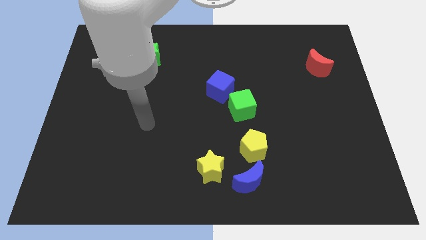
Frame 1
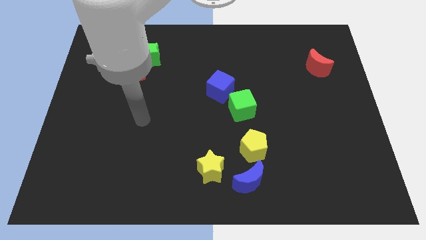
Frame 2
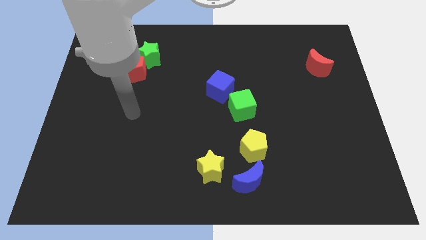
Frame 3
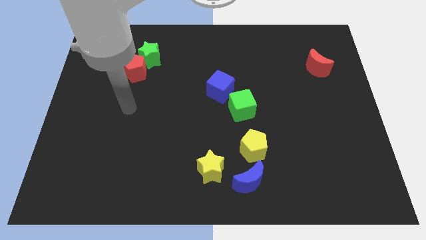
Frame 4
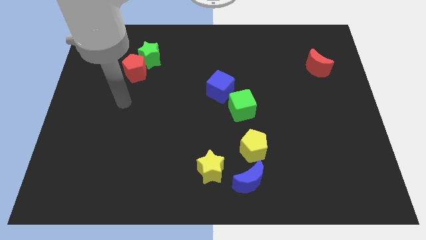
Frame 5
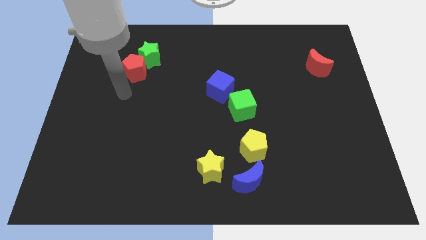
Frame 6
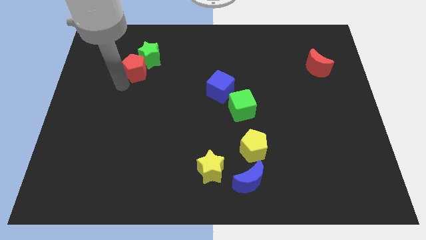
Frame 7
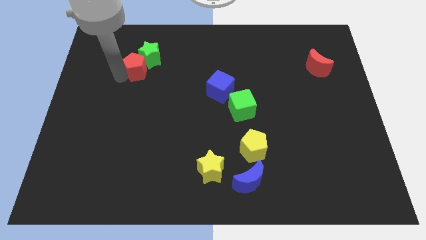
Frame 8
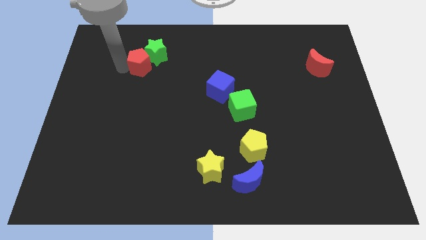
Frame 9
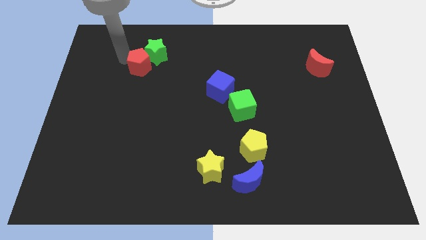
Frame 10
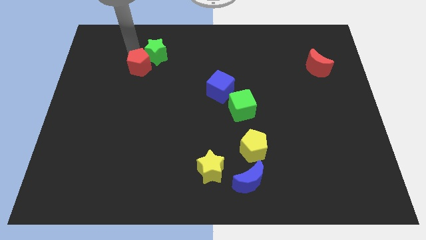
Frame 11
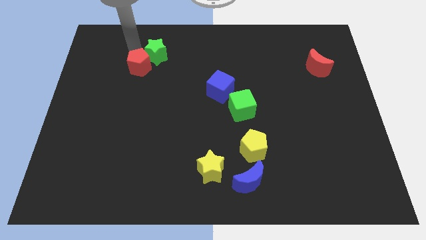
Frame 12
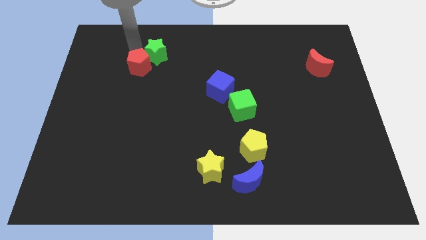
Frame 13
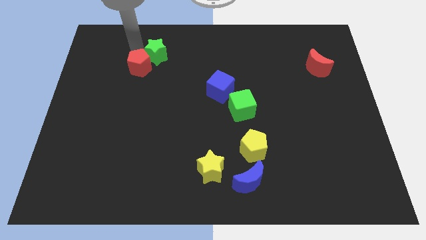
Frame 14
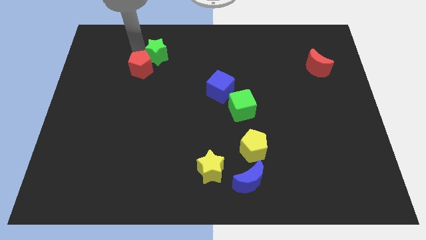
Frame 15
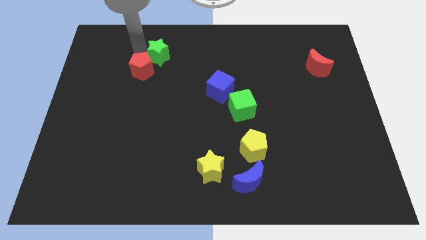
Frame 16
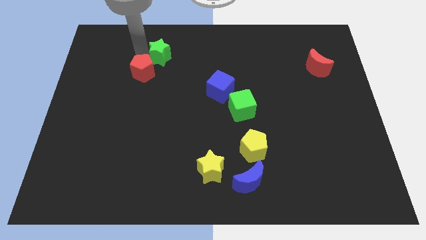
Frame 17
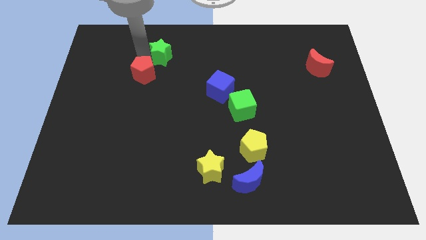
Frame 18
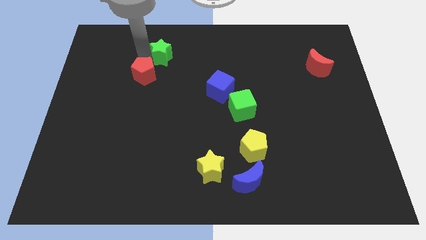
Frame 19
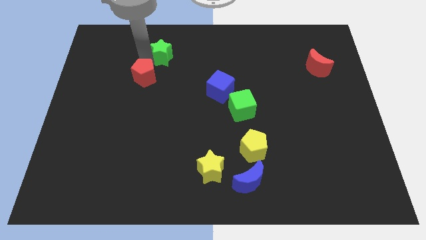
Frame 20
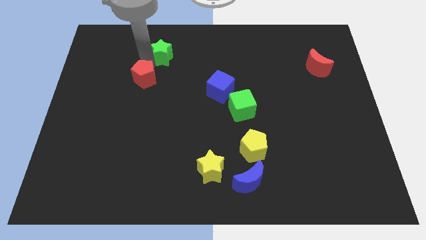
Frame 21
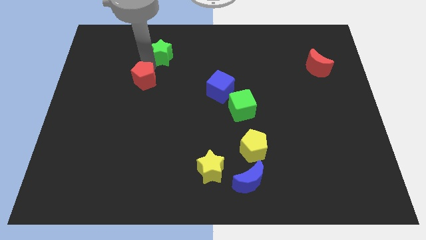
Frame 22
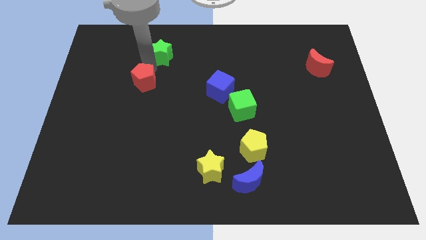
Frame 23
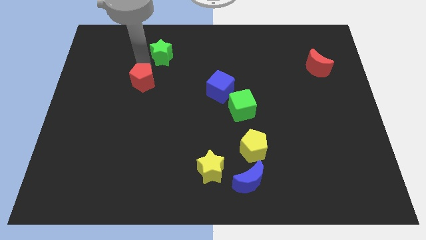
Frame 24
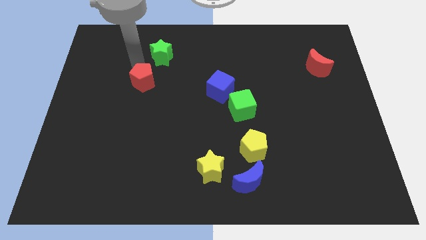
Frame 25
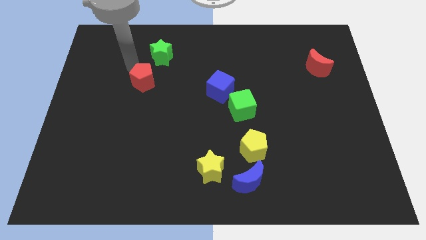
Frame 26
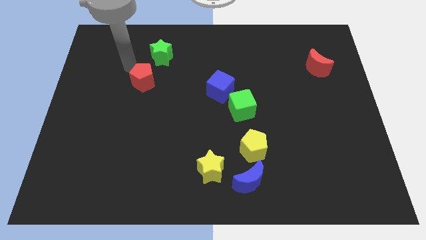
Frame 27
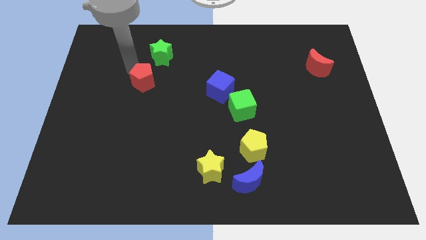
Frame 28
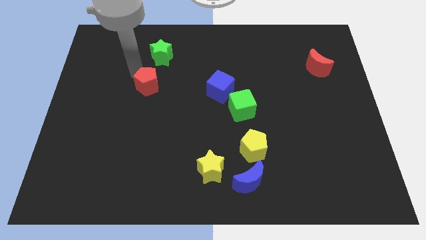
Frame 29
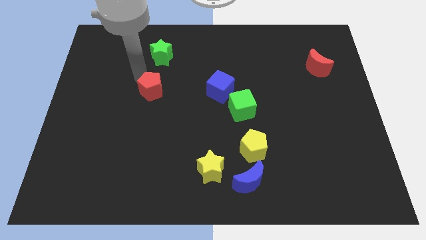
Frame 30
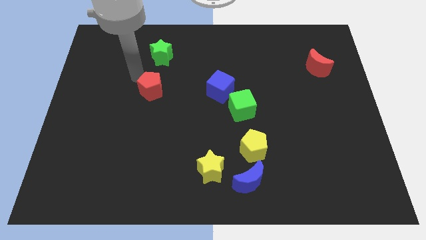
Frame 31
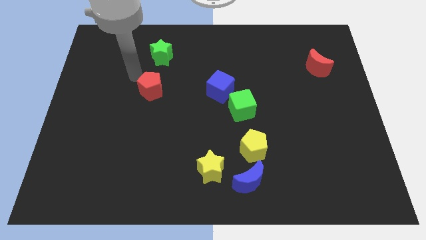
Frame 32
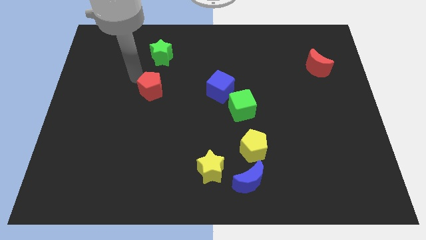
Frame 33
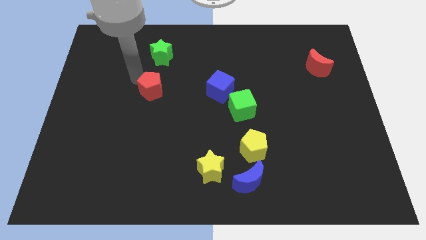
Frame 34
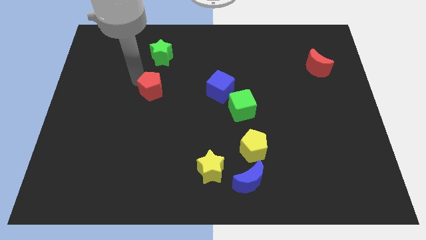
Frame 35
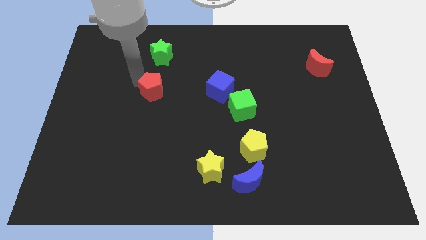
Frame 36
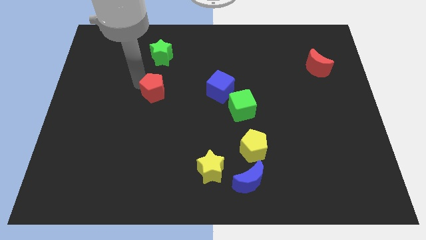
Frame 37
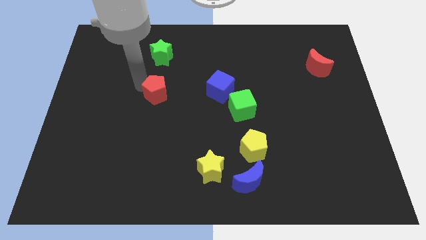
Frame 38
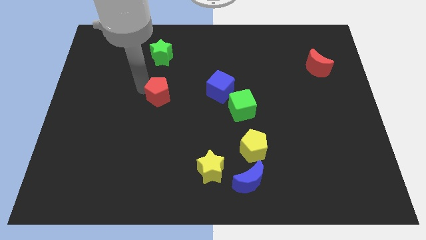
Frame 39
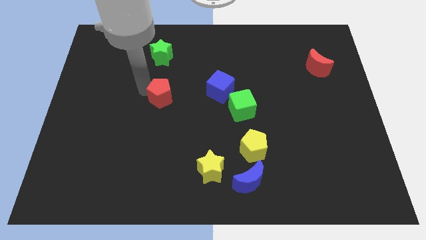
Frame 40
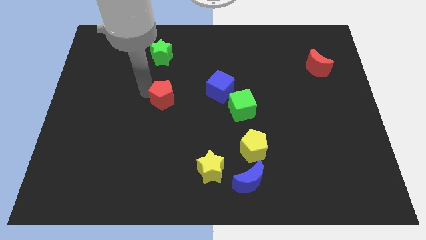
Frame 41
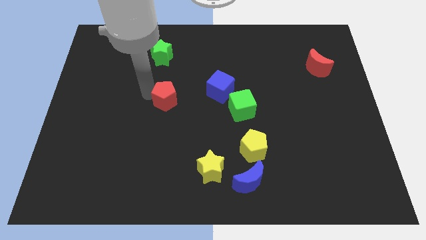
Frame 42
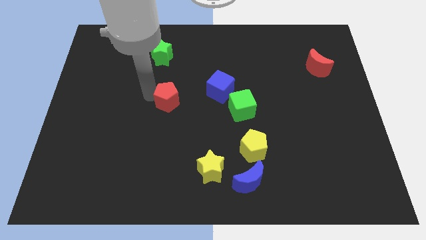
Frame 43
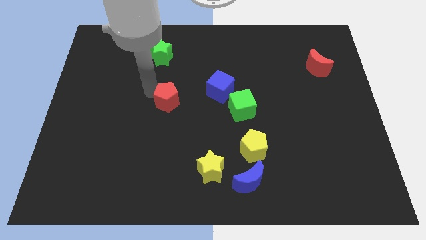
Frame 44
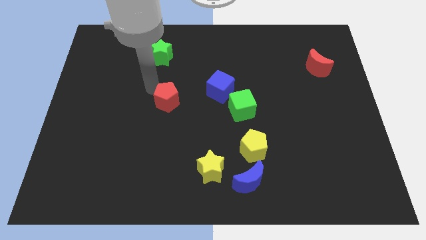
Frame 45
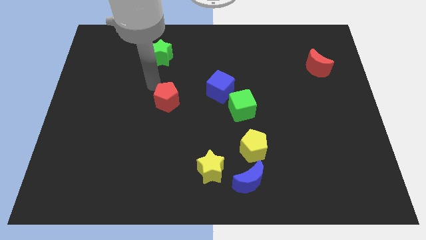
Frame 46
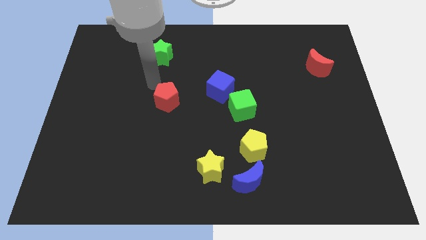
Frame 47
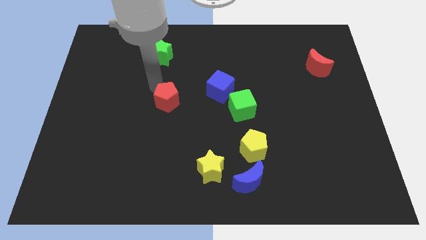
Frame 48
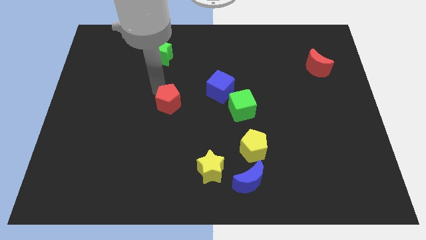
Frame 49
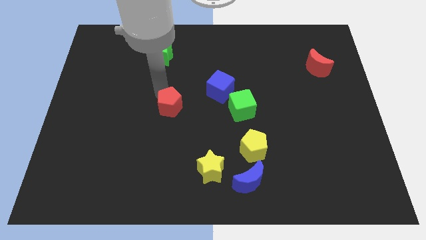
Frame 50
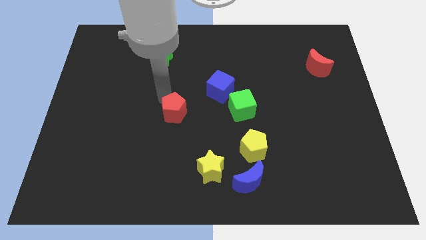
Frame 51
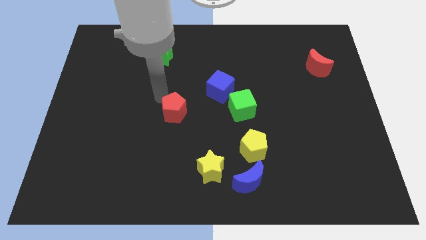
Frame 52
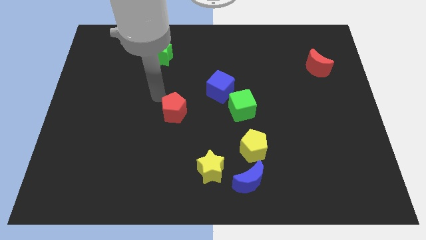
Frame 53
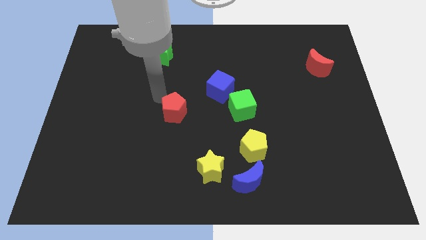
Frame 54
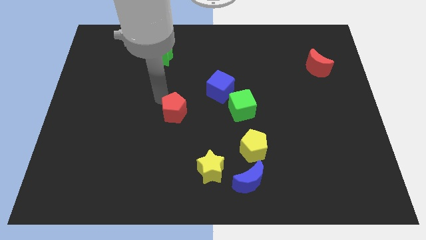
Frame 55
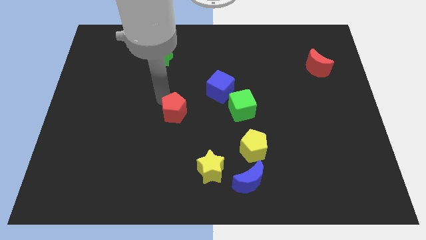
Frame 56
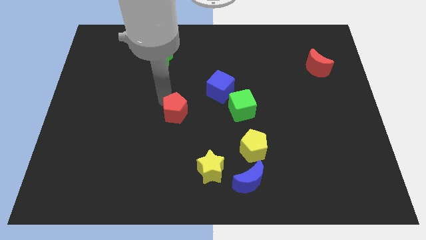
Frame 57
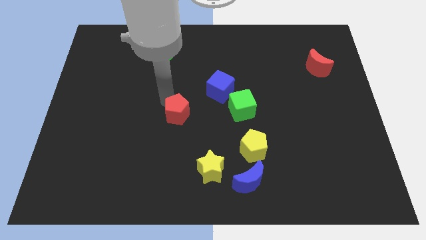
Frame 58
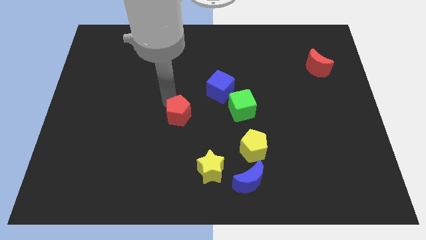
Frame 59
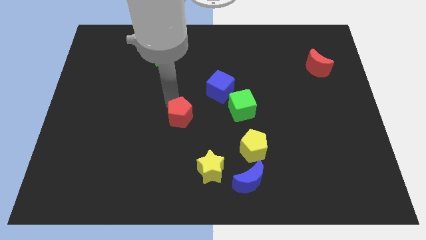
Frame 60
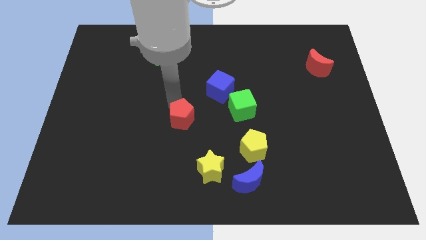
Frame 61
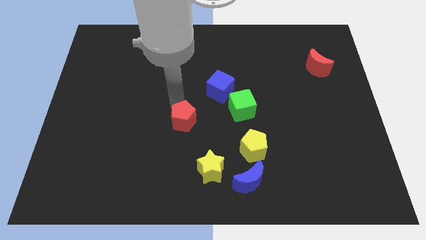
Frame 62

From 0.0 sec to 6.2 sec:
push the red pentagon downwards and to the right diagonally

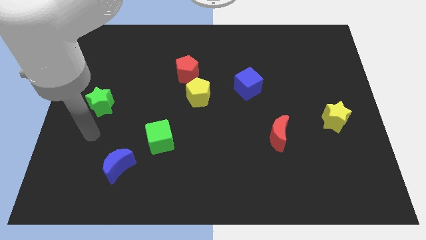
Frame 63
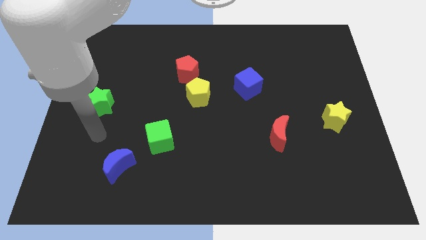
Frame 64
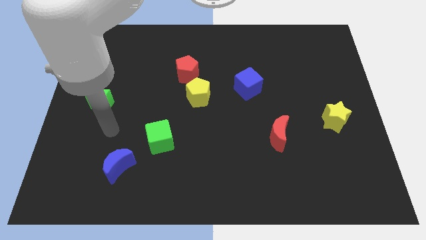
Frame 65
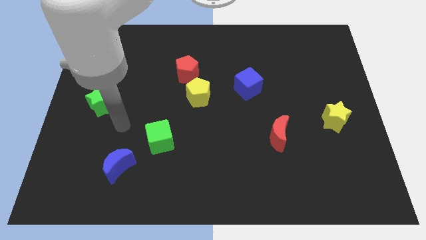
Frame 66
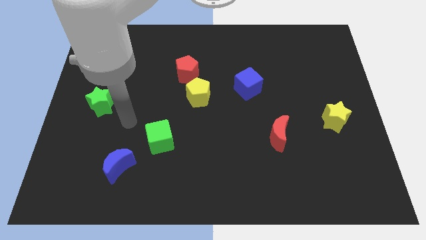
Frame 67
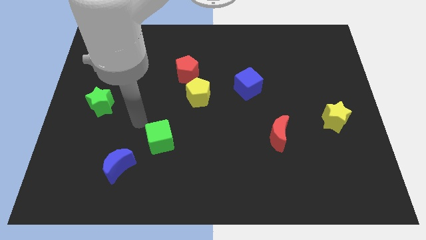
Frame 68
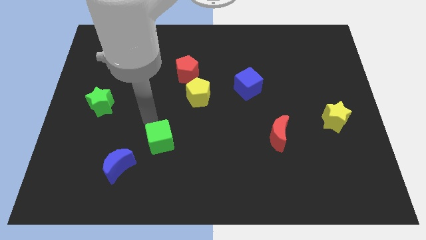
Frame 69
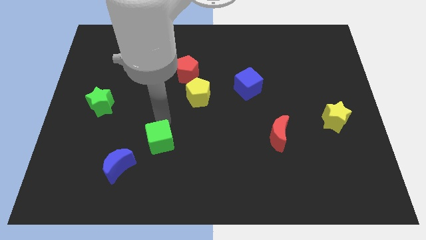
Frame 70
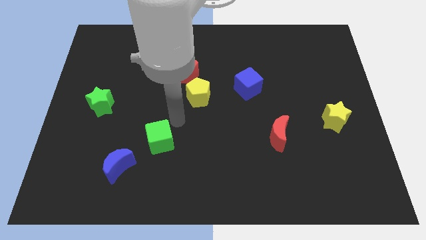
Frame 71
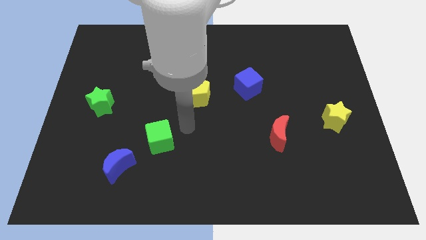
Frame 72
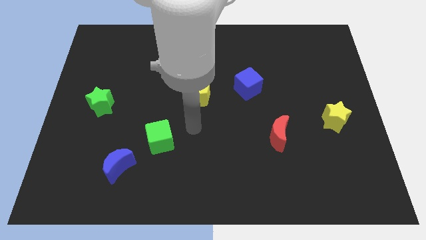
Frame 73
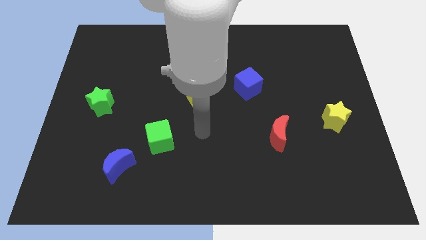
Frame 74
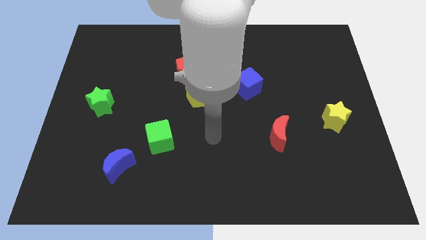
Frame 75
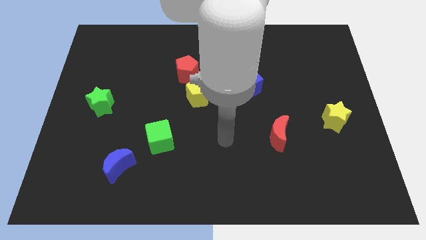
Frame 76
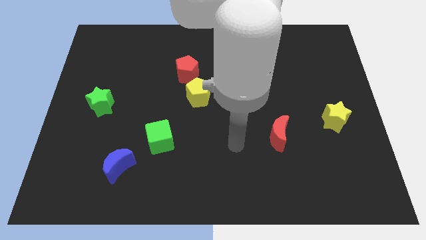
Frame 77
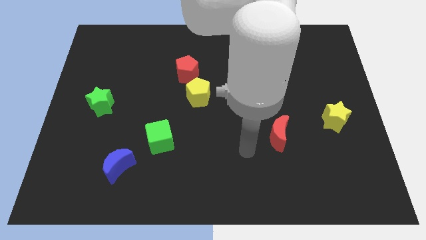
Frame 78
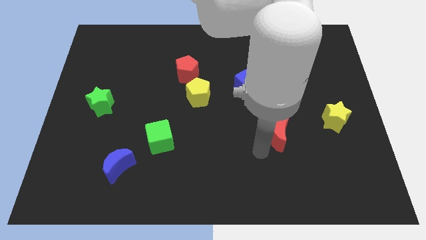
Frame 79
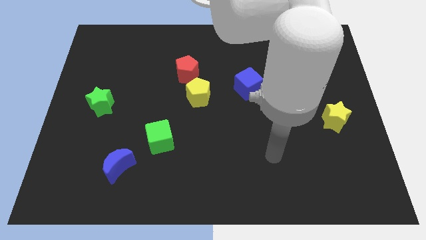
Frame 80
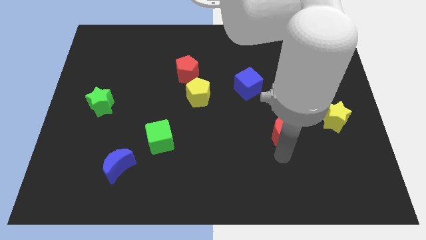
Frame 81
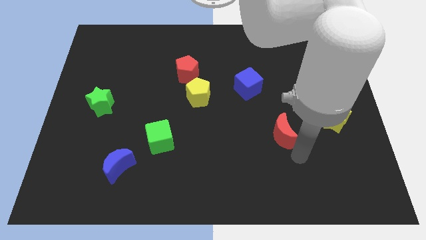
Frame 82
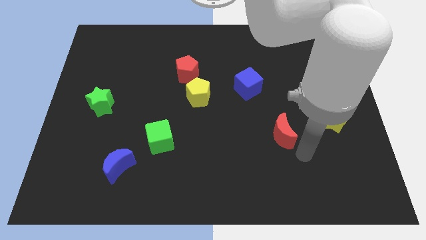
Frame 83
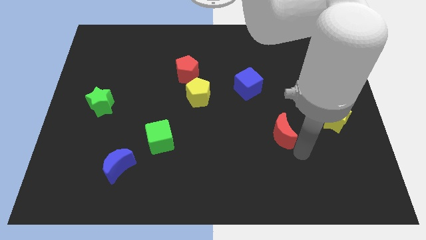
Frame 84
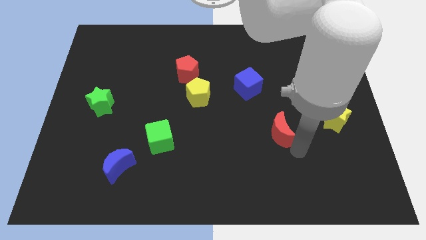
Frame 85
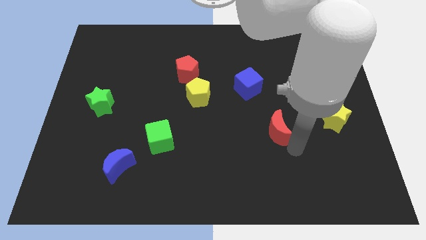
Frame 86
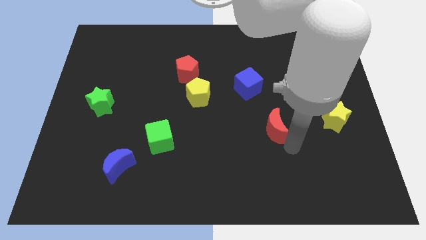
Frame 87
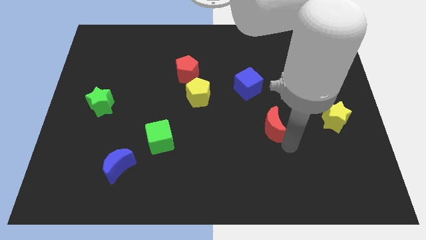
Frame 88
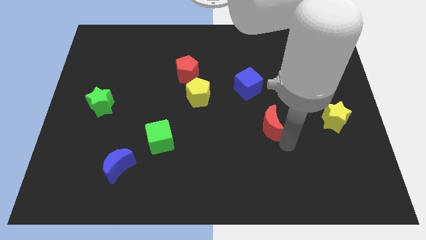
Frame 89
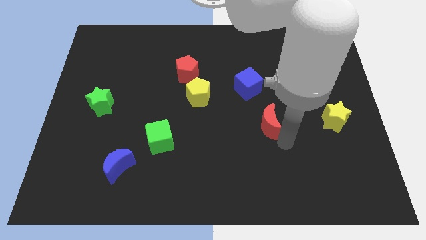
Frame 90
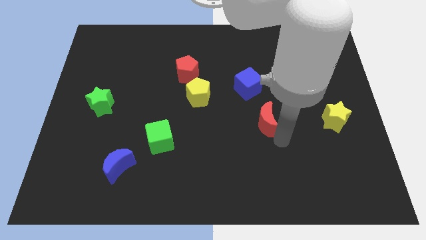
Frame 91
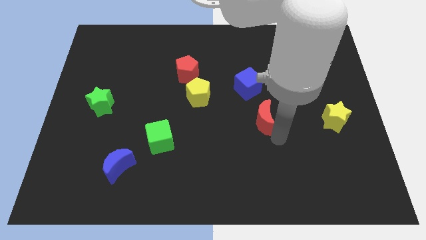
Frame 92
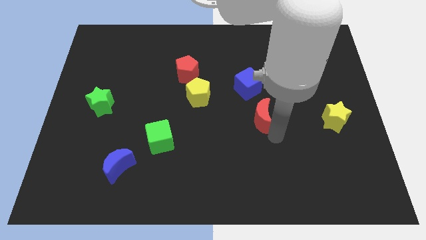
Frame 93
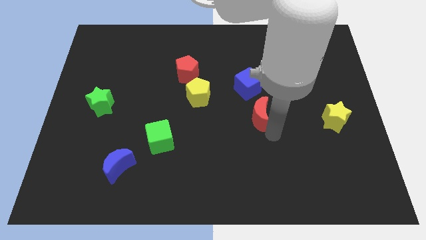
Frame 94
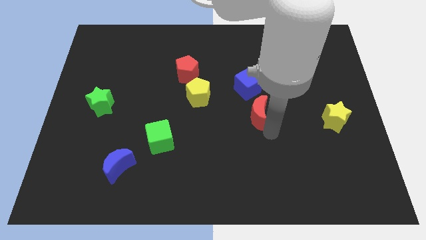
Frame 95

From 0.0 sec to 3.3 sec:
push the red moon a little bit upwards and left
